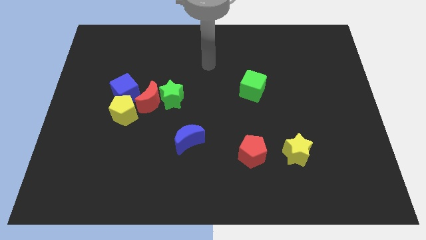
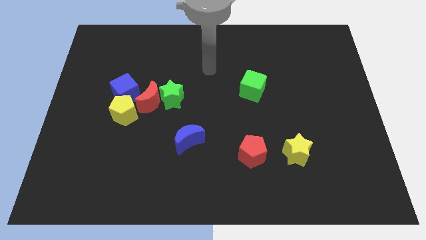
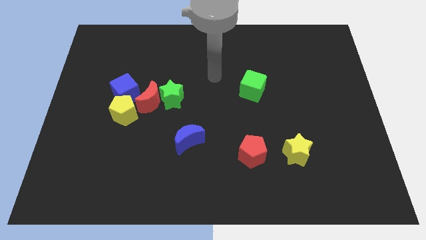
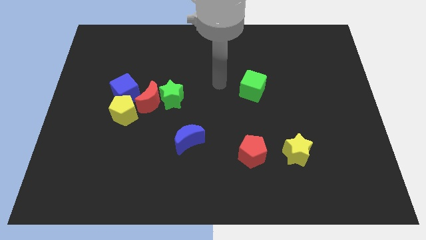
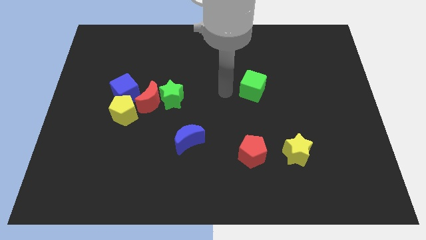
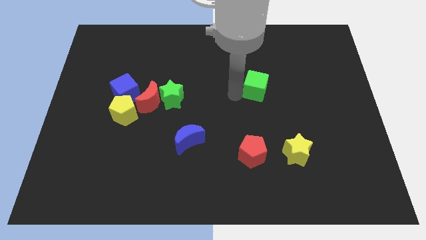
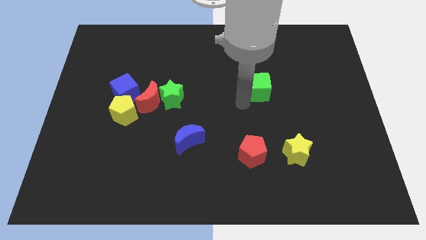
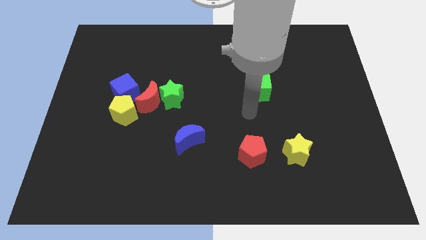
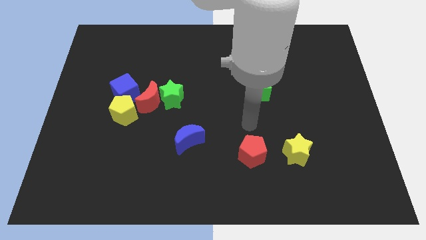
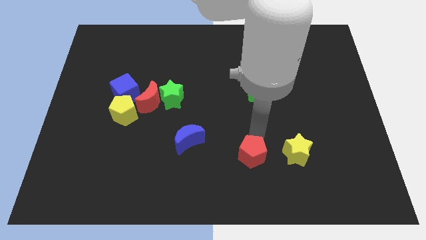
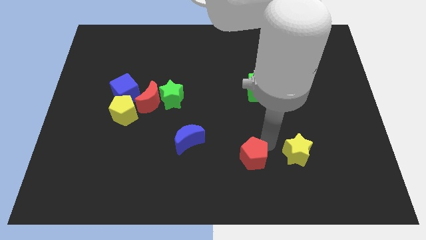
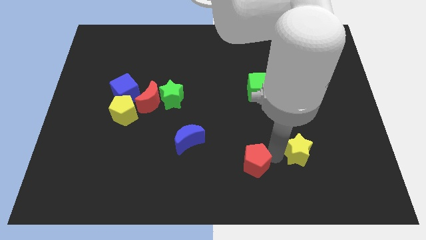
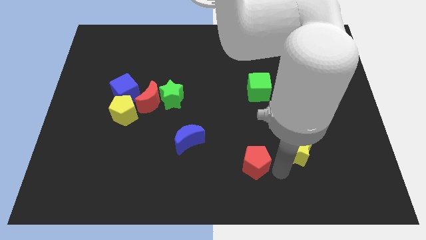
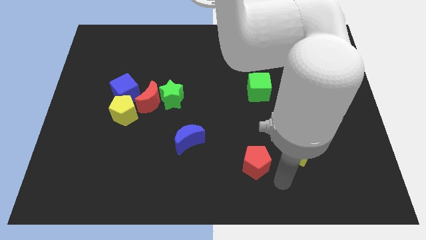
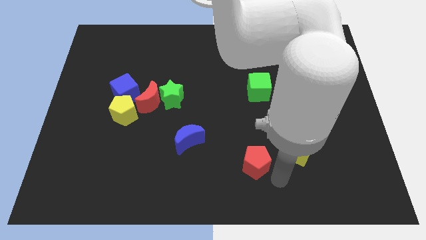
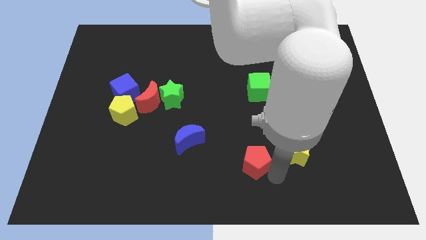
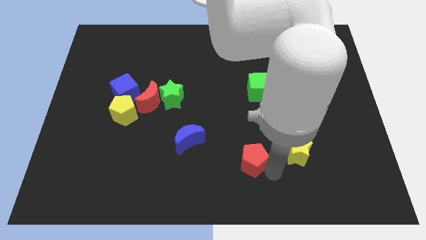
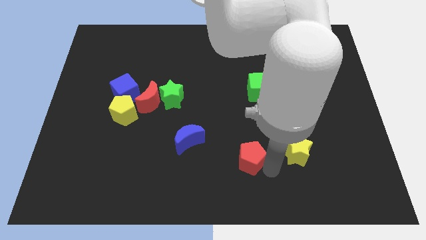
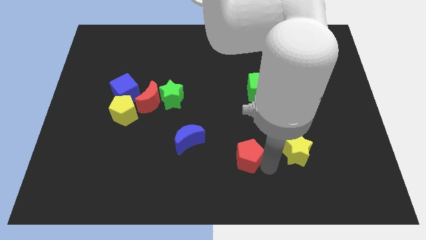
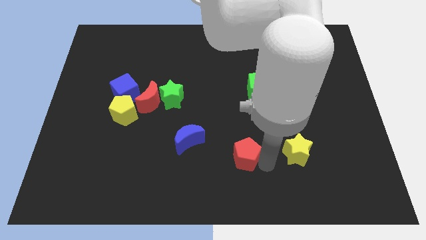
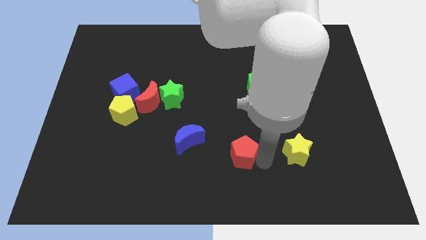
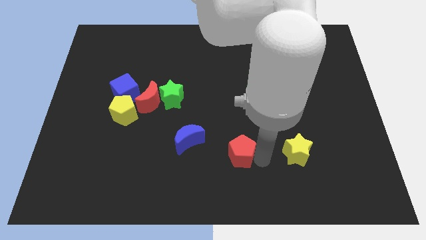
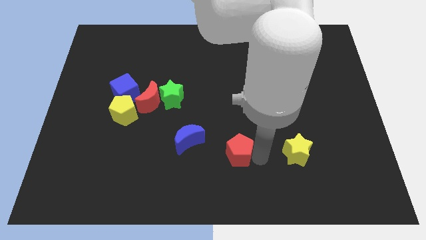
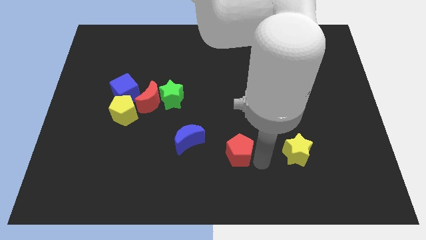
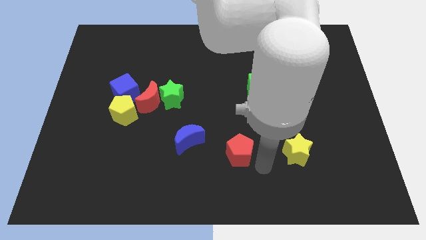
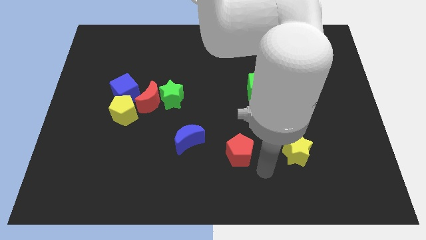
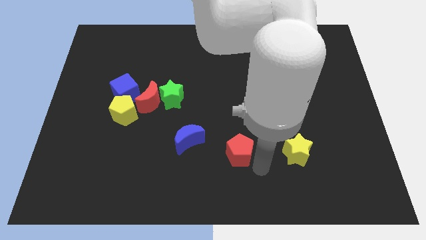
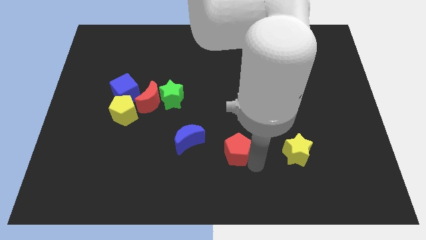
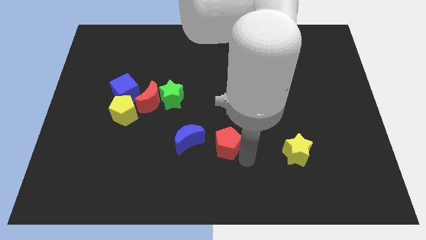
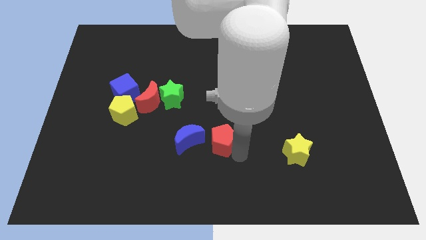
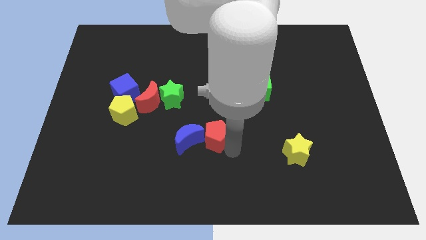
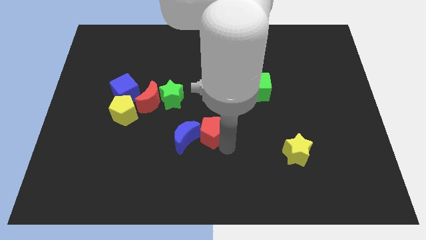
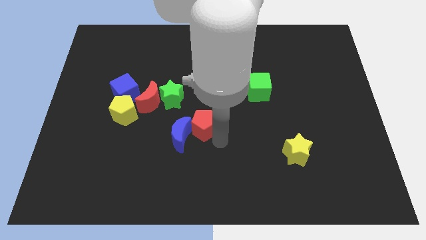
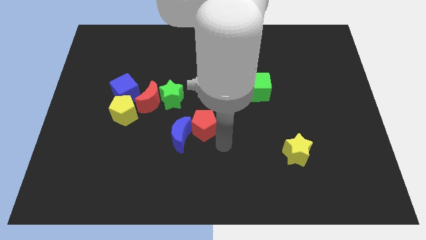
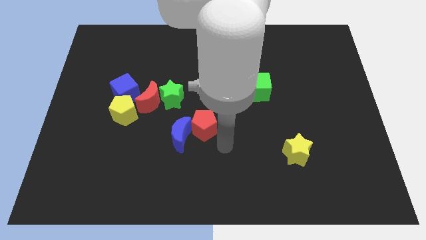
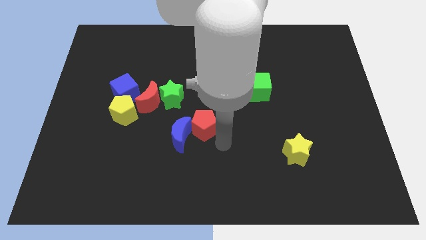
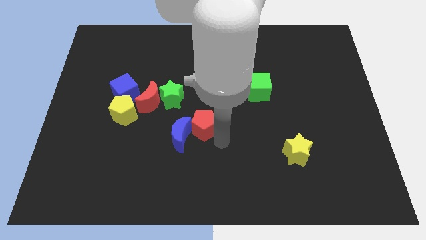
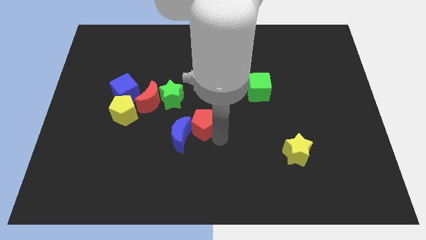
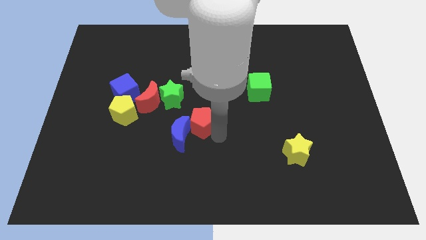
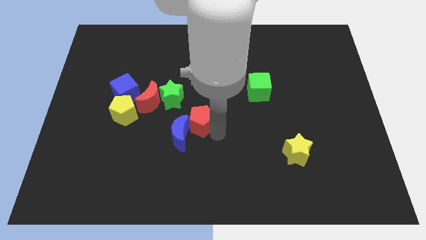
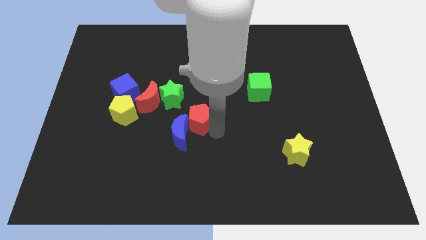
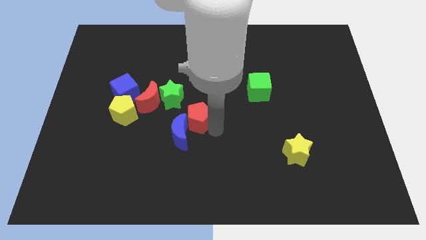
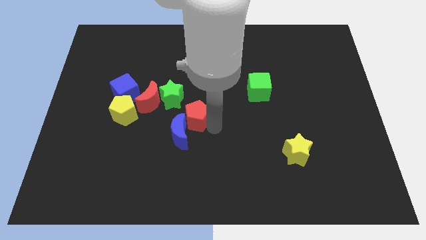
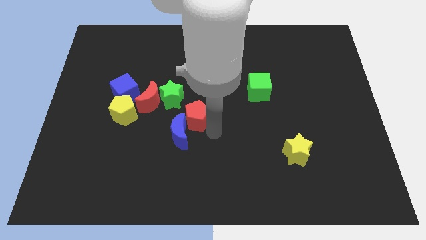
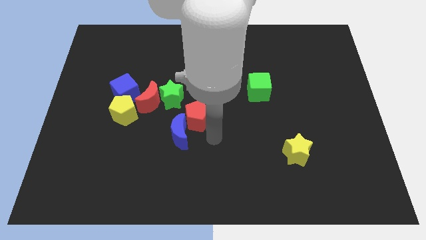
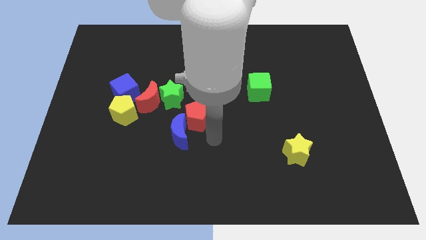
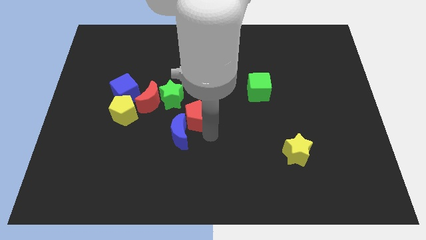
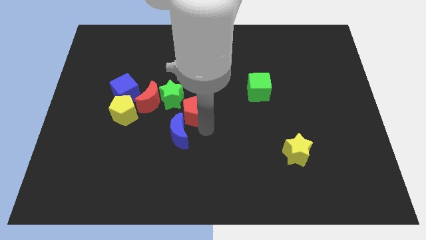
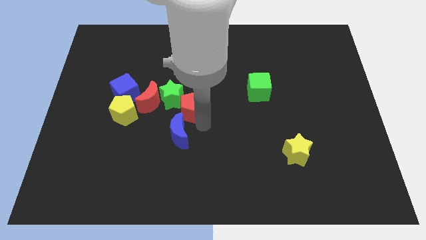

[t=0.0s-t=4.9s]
put the red pentagon next to the green star

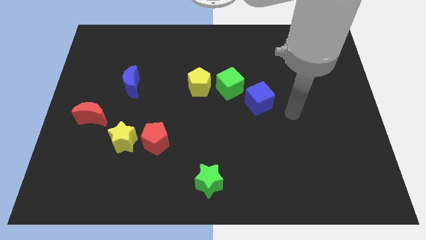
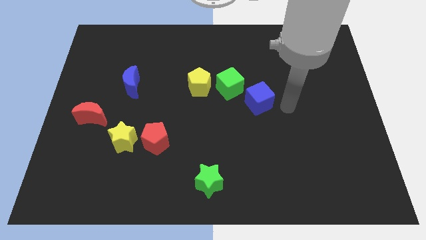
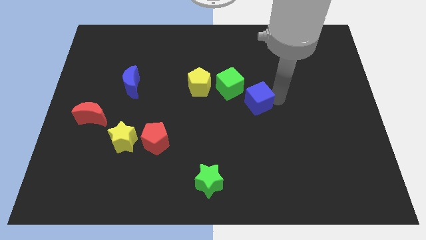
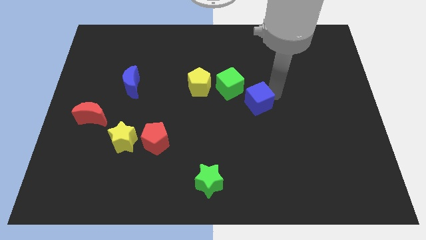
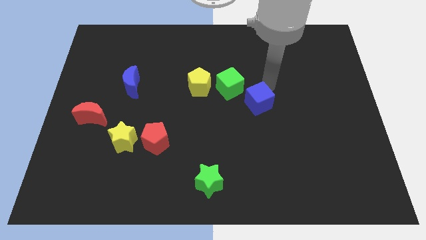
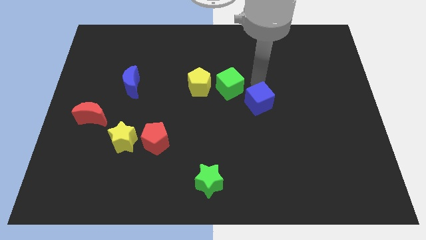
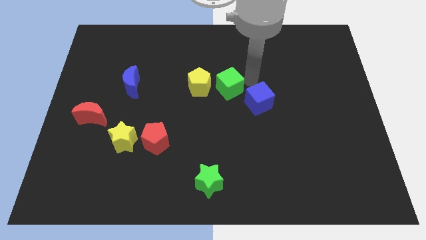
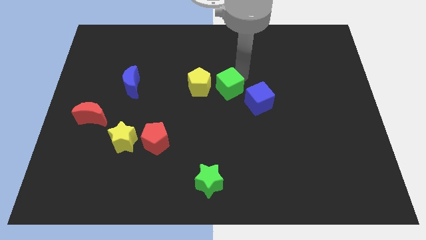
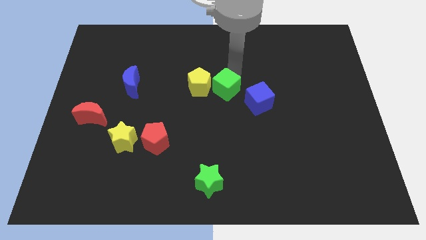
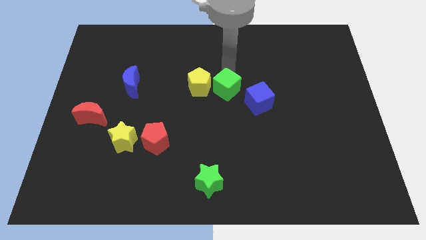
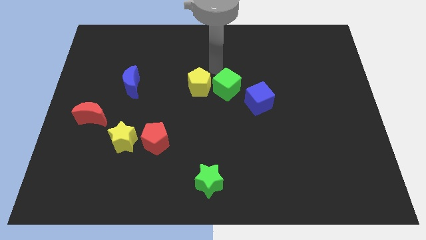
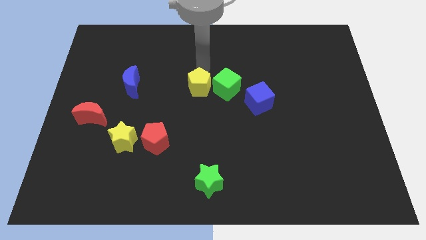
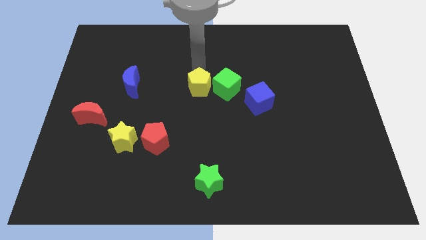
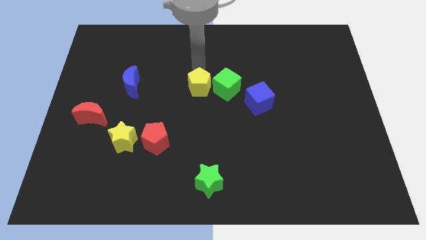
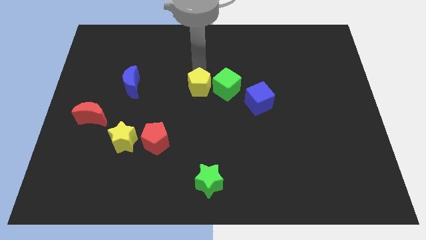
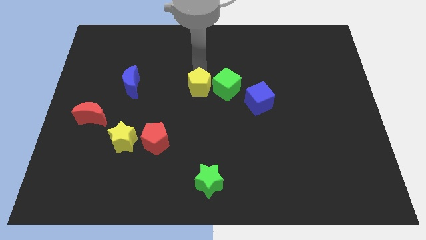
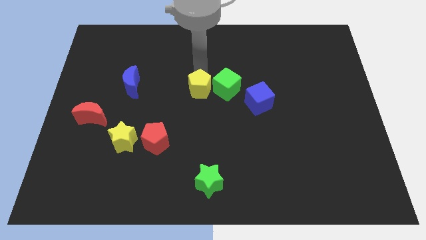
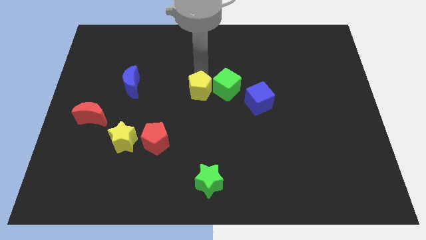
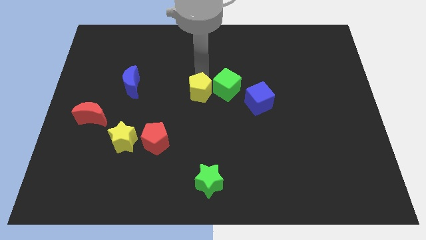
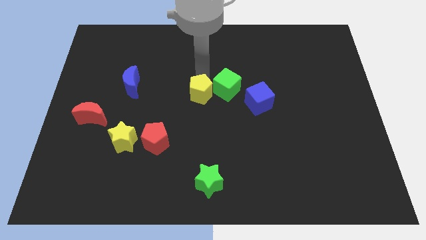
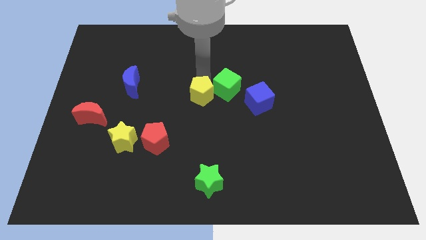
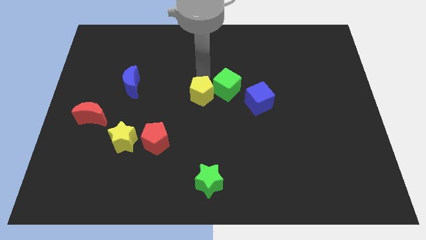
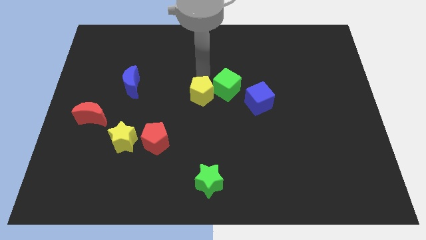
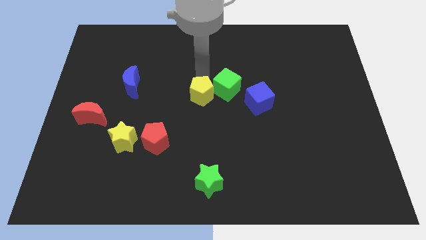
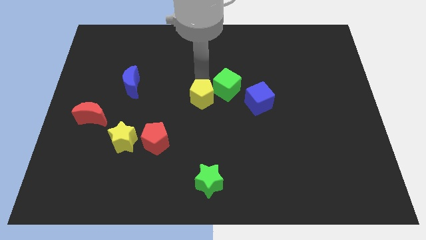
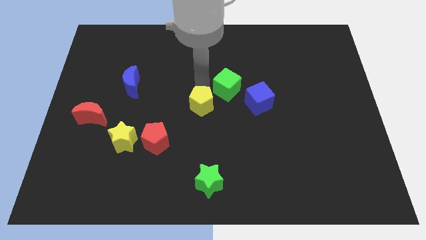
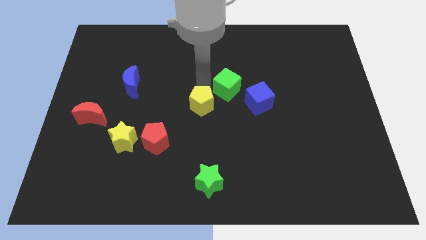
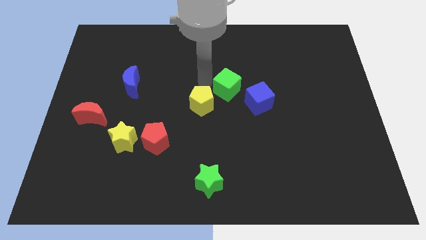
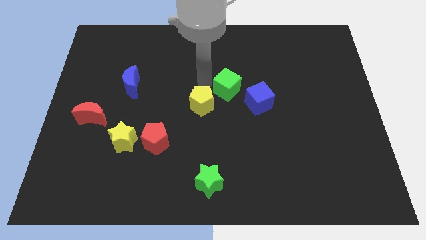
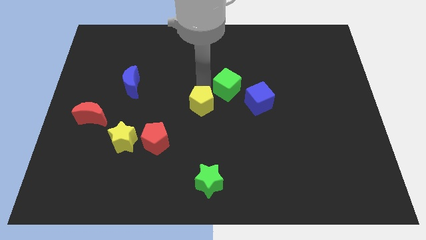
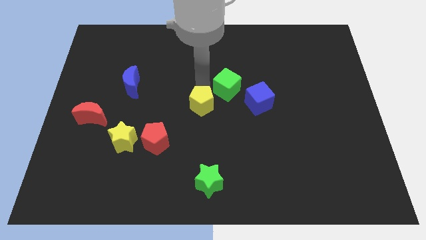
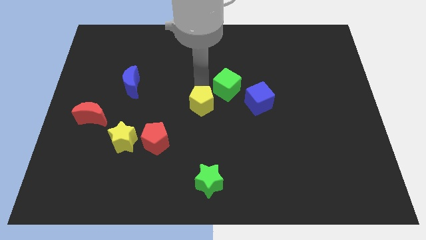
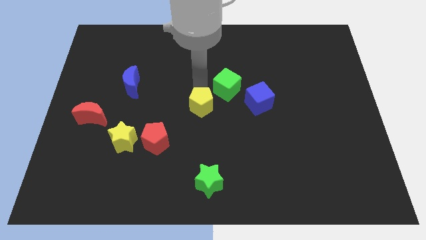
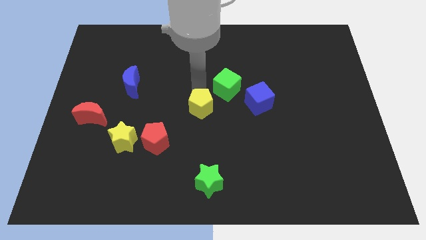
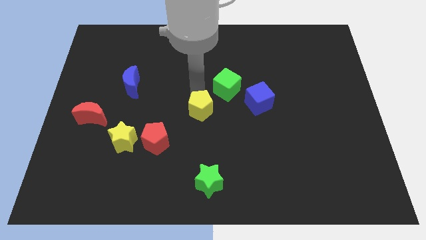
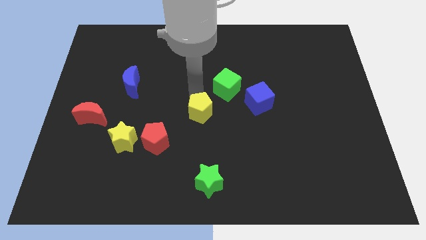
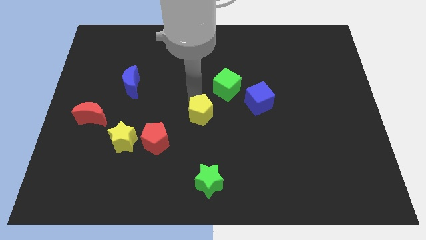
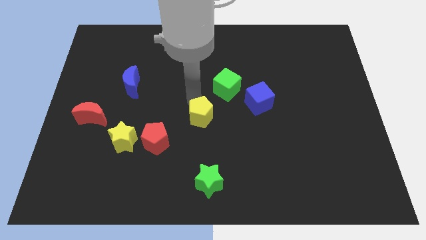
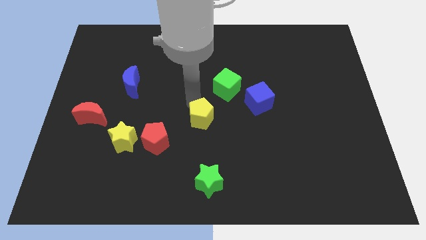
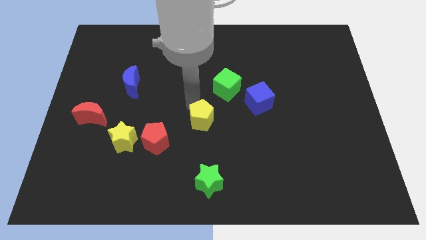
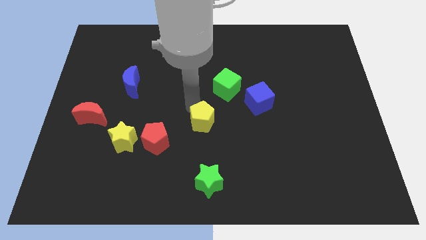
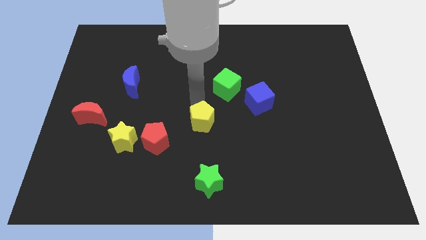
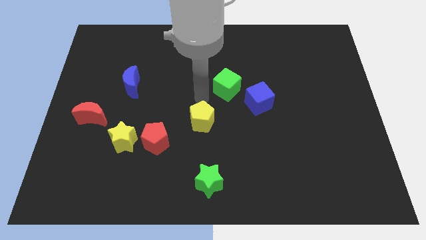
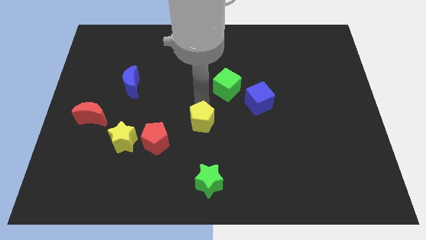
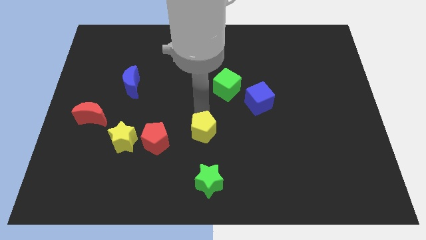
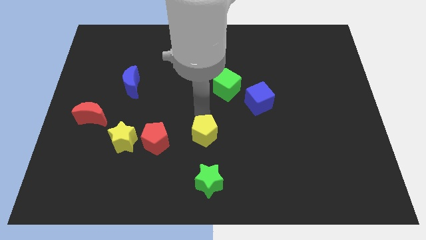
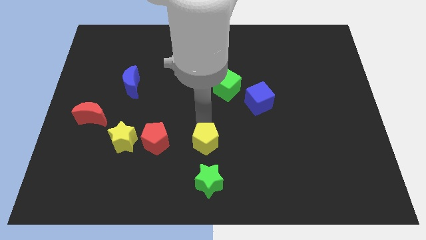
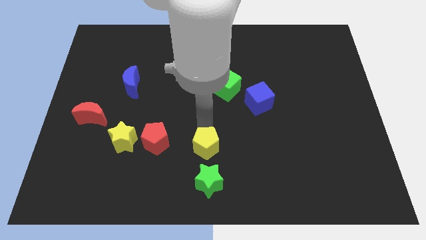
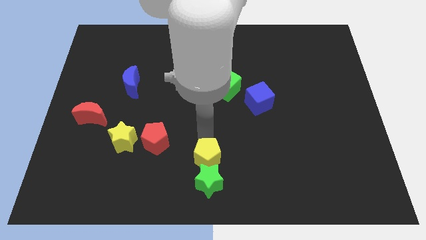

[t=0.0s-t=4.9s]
put the yellow pentagon next to the green star
